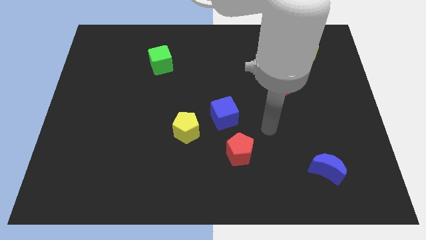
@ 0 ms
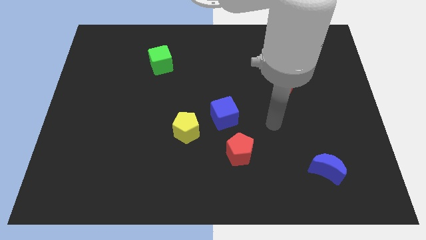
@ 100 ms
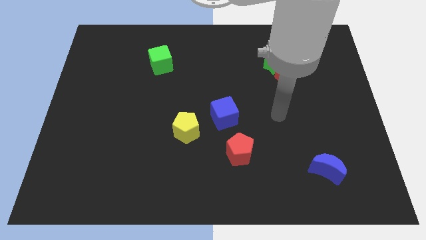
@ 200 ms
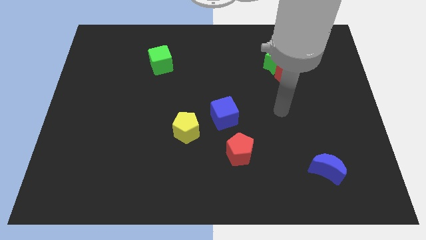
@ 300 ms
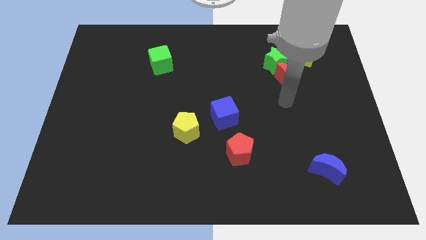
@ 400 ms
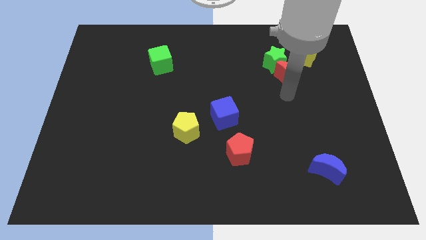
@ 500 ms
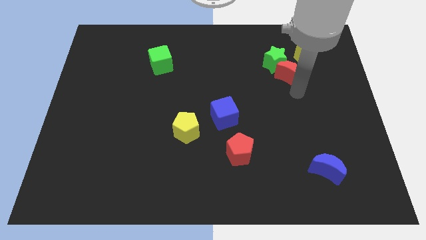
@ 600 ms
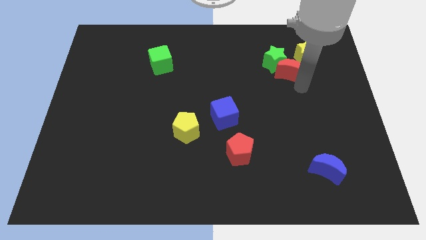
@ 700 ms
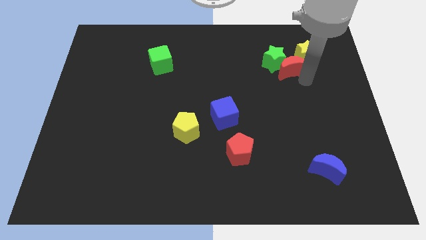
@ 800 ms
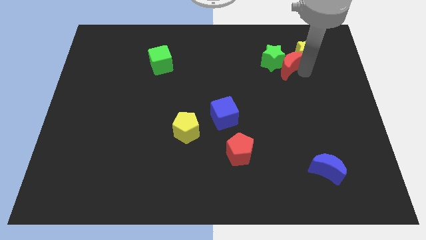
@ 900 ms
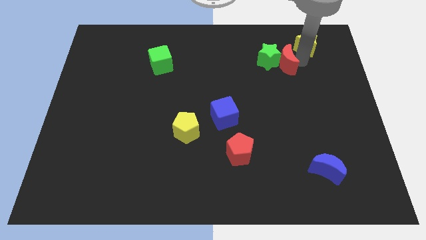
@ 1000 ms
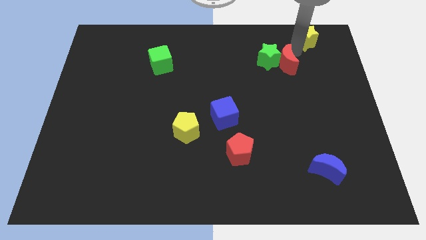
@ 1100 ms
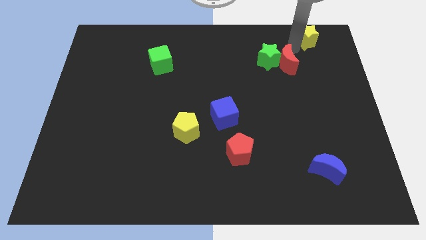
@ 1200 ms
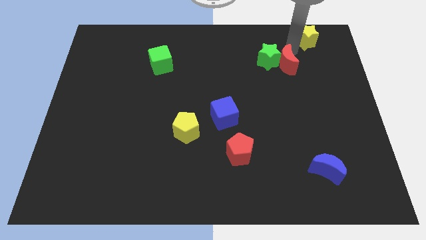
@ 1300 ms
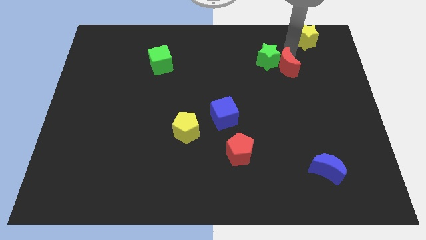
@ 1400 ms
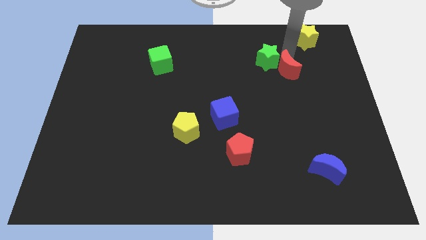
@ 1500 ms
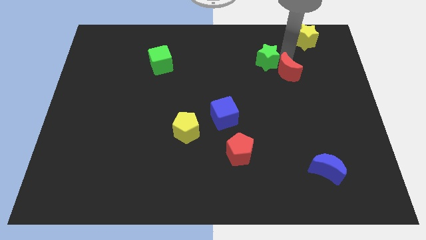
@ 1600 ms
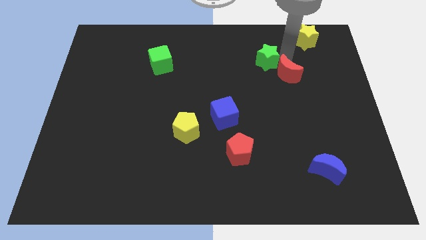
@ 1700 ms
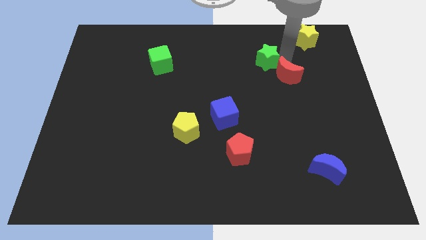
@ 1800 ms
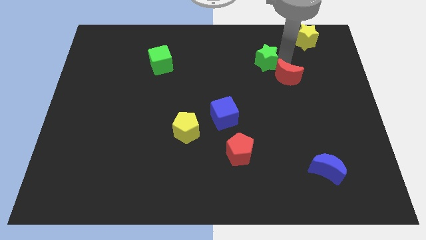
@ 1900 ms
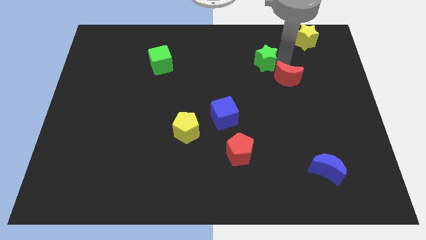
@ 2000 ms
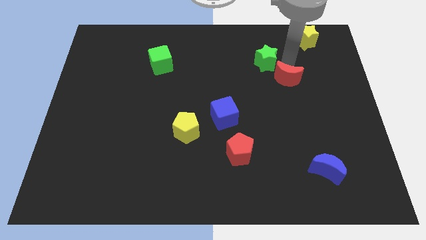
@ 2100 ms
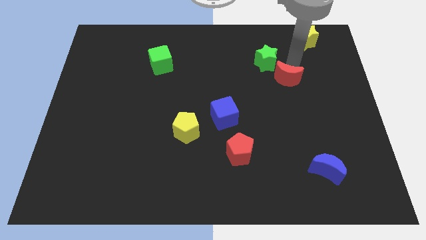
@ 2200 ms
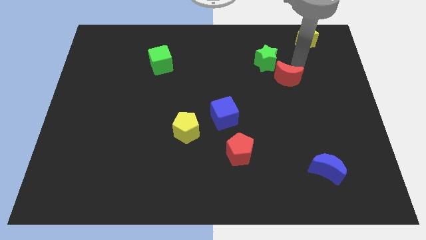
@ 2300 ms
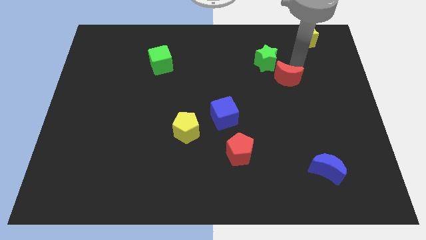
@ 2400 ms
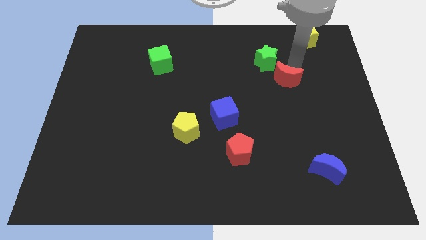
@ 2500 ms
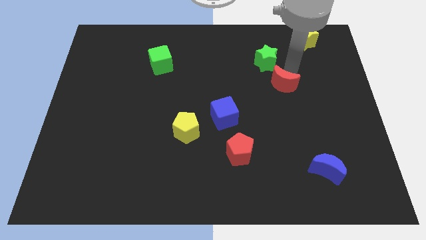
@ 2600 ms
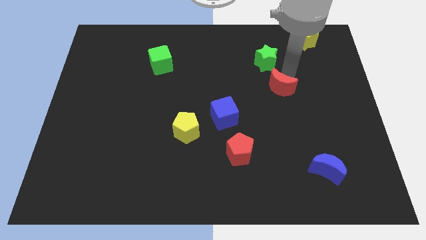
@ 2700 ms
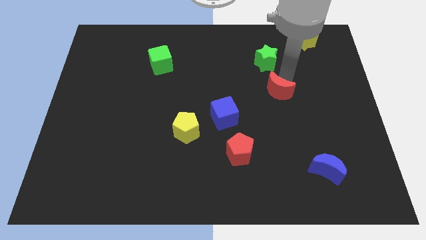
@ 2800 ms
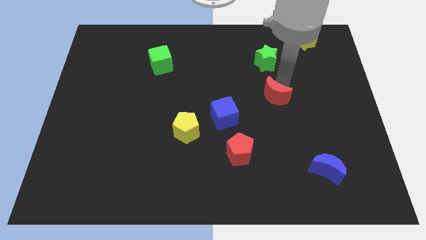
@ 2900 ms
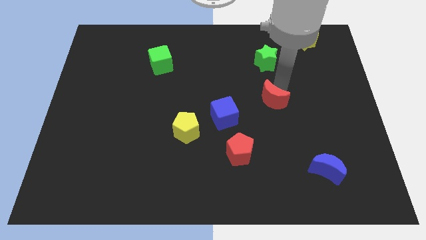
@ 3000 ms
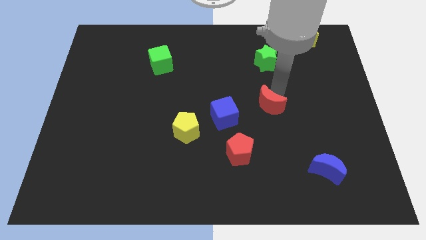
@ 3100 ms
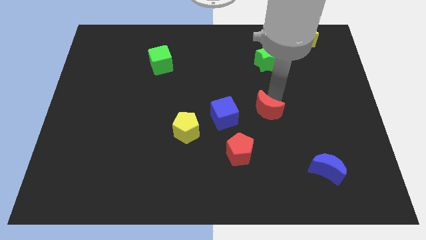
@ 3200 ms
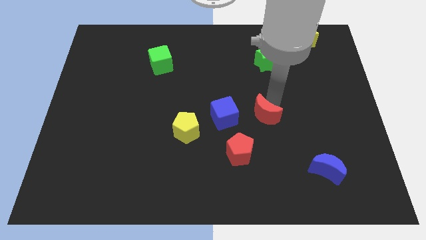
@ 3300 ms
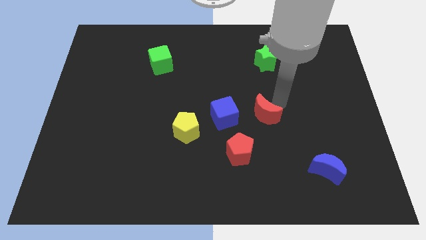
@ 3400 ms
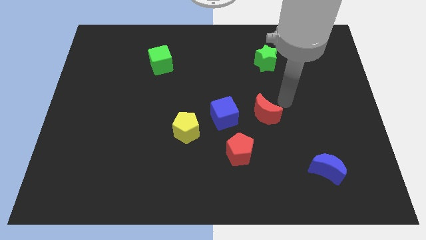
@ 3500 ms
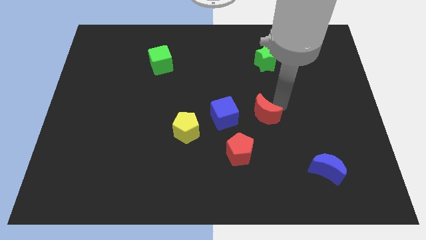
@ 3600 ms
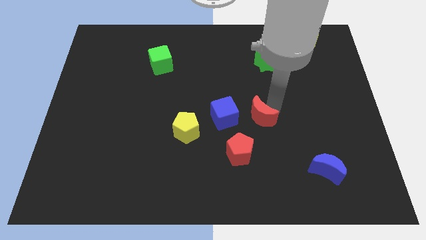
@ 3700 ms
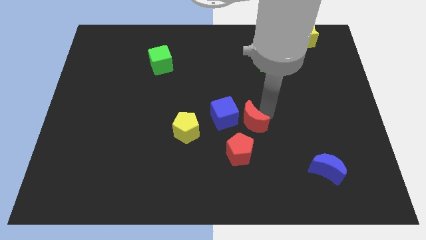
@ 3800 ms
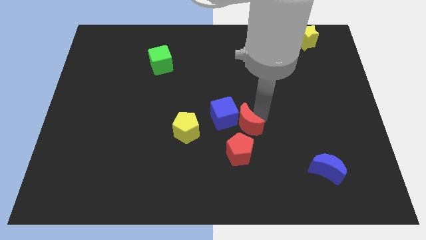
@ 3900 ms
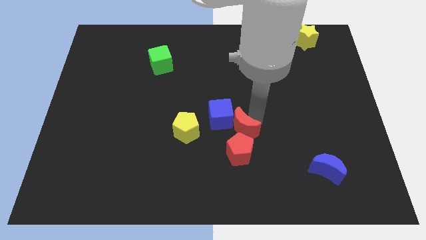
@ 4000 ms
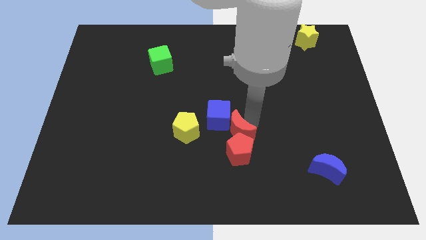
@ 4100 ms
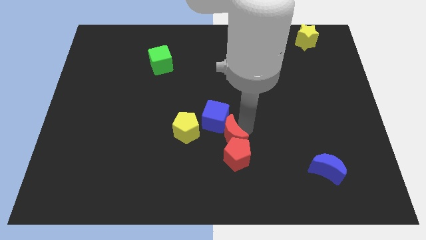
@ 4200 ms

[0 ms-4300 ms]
slide the red moon down and left

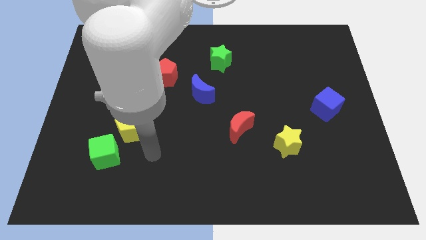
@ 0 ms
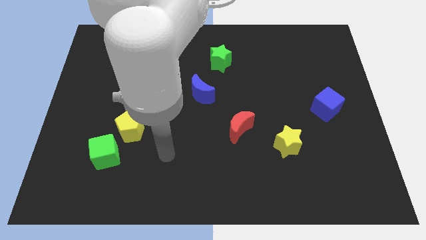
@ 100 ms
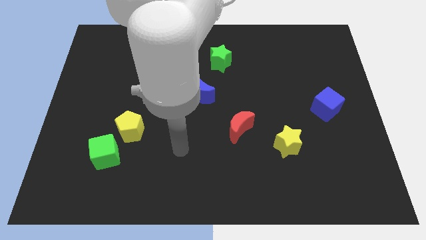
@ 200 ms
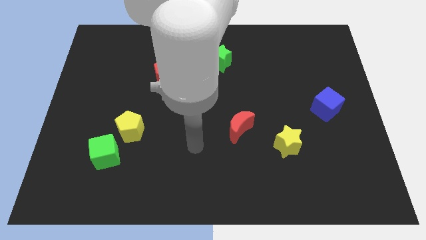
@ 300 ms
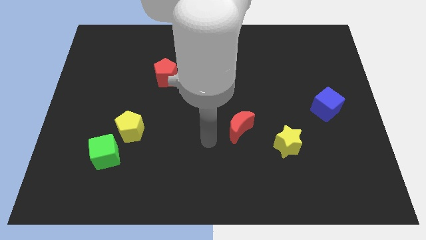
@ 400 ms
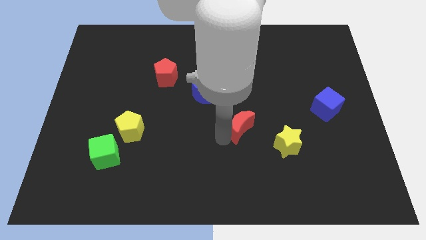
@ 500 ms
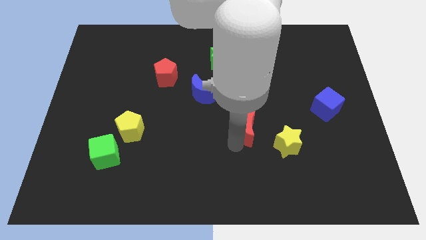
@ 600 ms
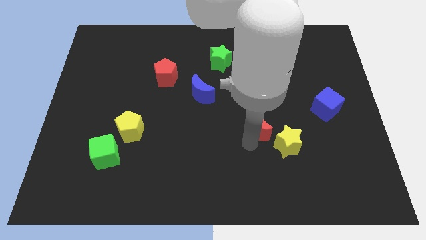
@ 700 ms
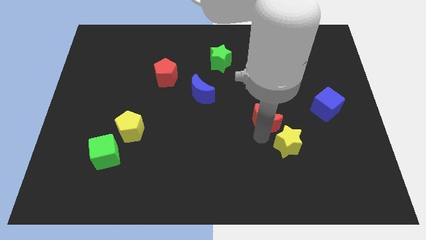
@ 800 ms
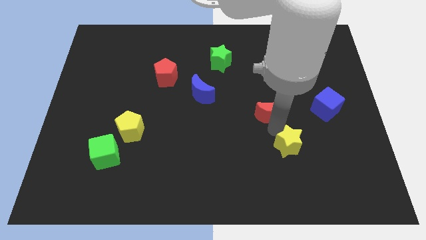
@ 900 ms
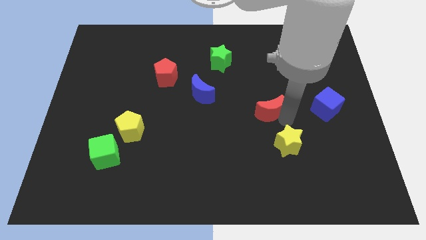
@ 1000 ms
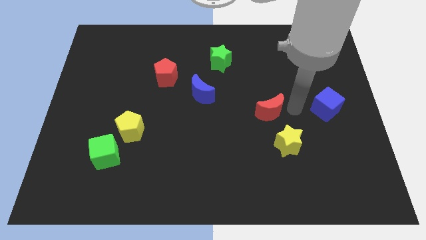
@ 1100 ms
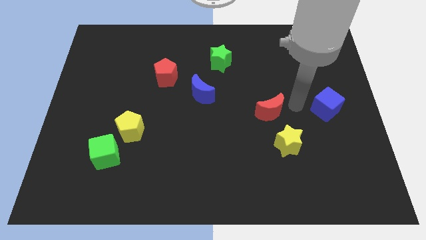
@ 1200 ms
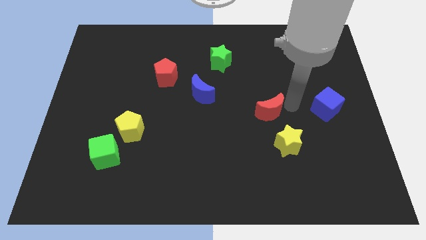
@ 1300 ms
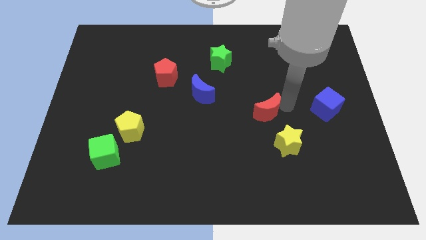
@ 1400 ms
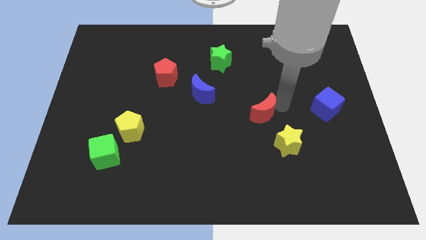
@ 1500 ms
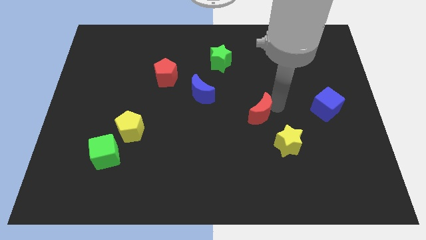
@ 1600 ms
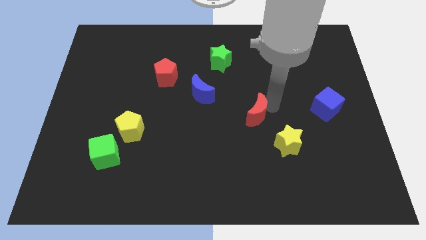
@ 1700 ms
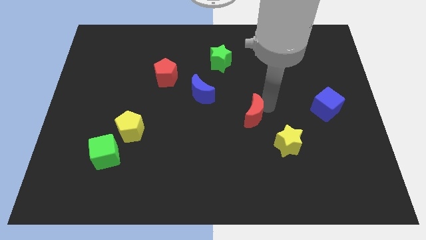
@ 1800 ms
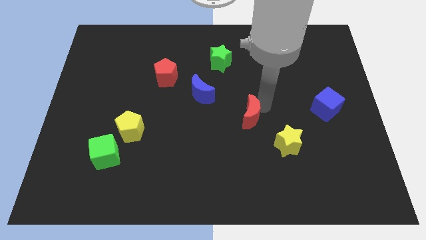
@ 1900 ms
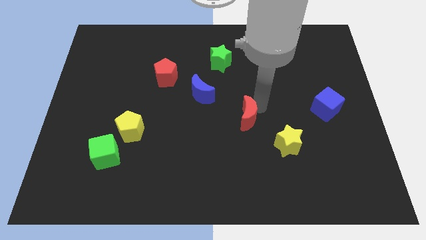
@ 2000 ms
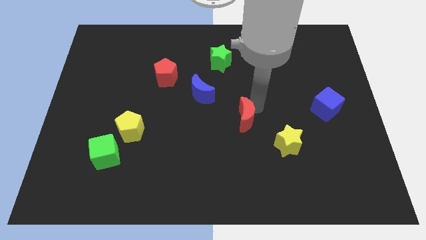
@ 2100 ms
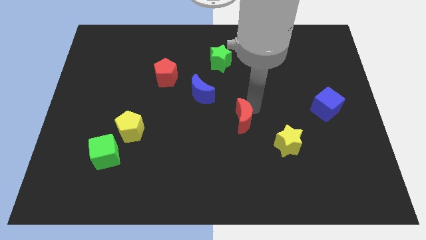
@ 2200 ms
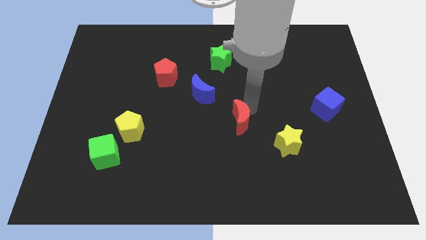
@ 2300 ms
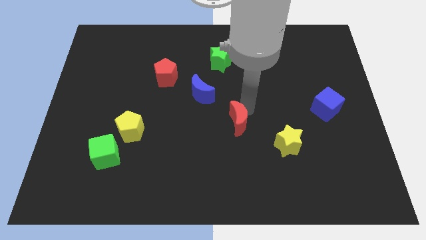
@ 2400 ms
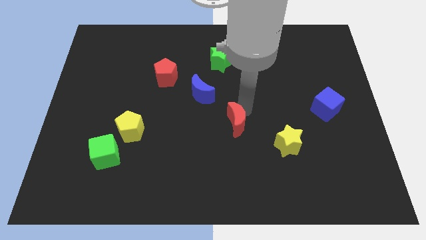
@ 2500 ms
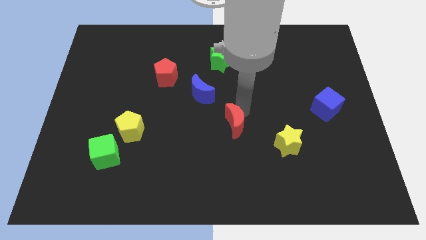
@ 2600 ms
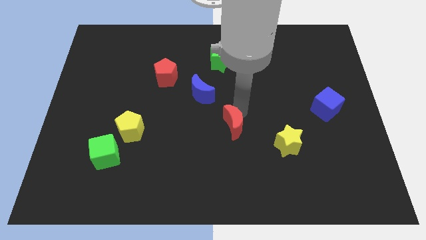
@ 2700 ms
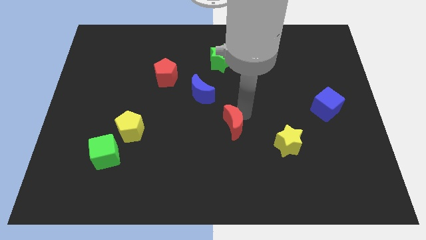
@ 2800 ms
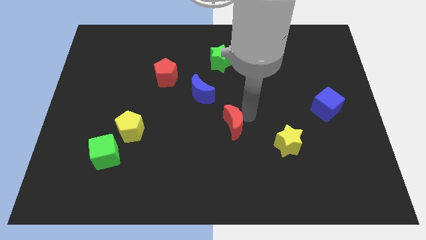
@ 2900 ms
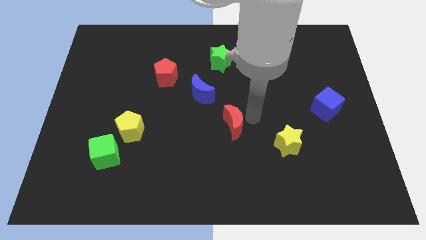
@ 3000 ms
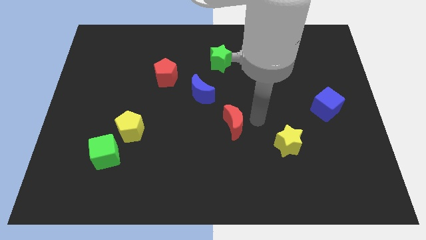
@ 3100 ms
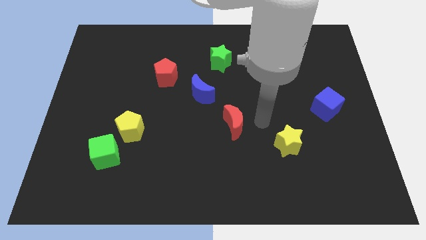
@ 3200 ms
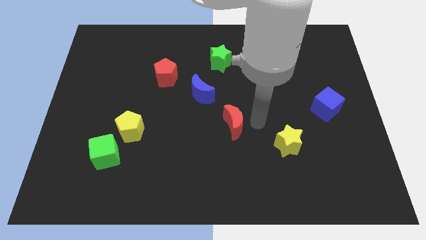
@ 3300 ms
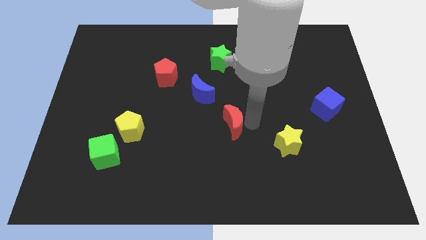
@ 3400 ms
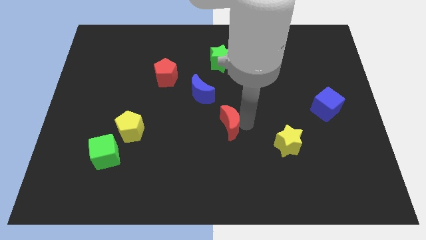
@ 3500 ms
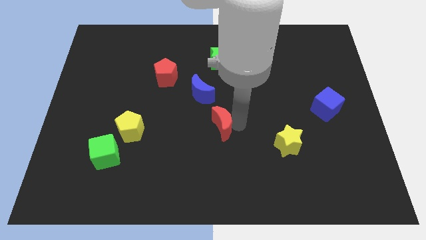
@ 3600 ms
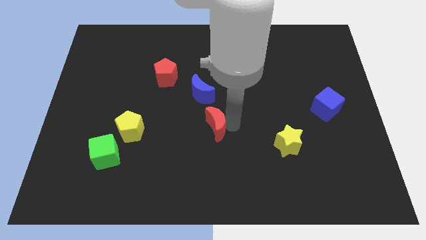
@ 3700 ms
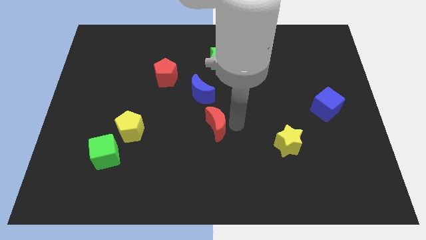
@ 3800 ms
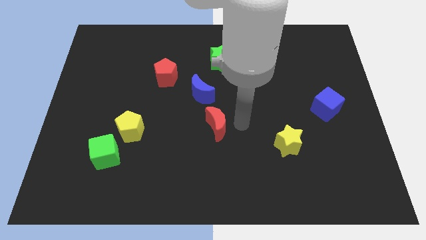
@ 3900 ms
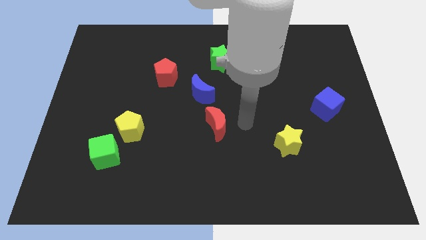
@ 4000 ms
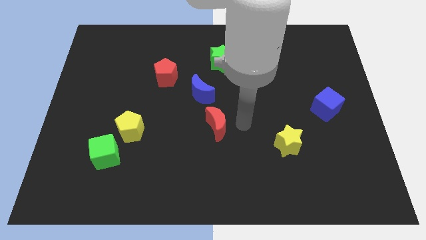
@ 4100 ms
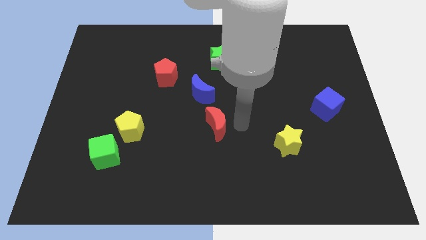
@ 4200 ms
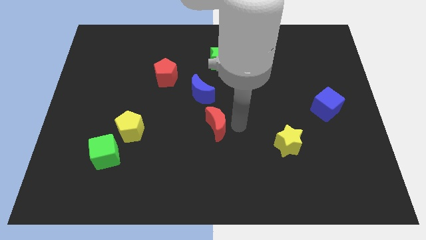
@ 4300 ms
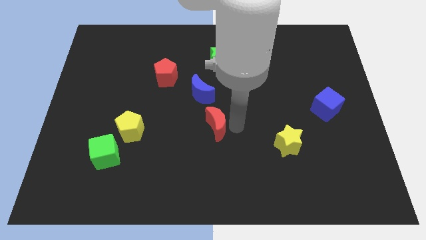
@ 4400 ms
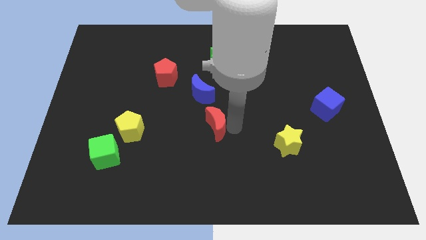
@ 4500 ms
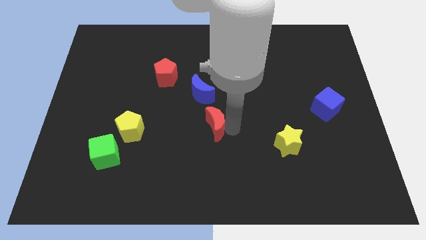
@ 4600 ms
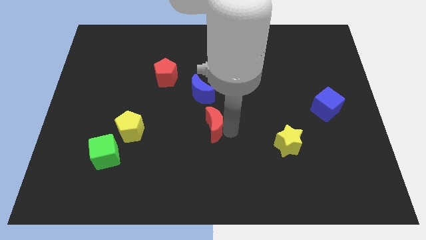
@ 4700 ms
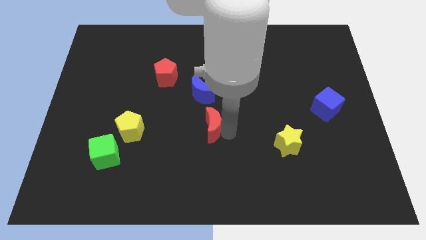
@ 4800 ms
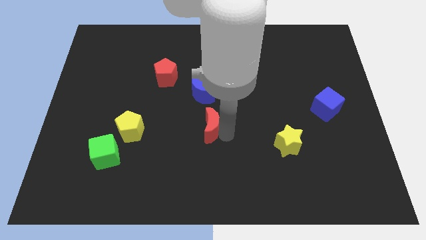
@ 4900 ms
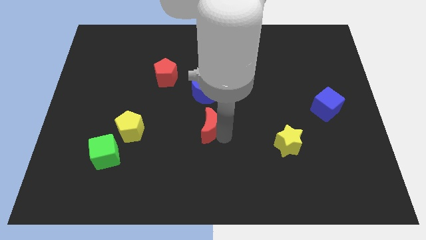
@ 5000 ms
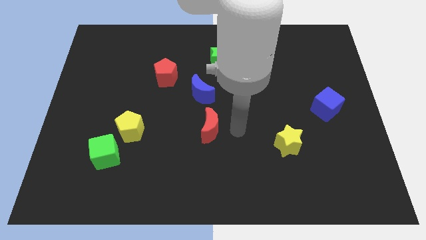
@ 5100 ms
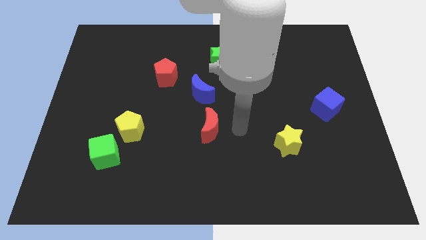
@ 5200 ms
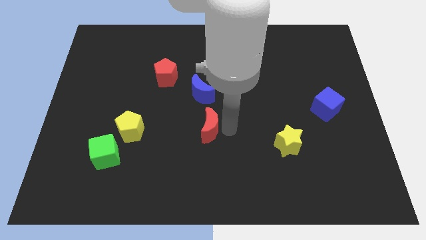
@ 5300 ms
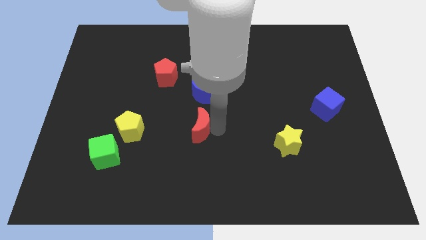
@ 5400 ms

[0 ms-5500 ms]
push the red moon slightly left
